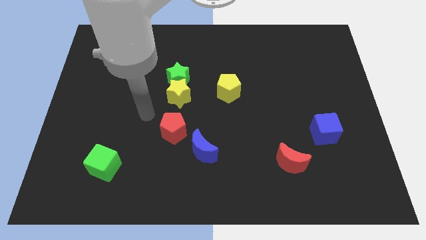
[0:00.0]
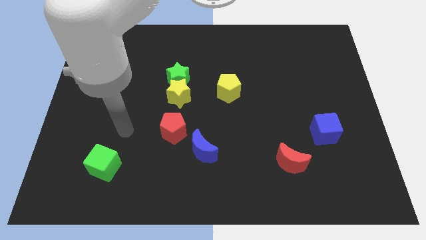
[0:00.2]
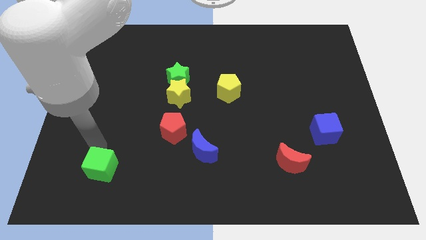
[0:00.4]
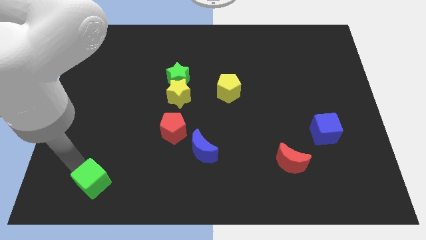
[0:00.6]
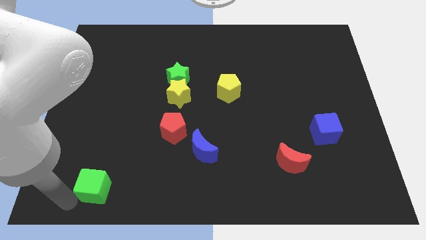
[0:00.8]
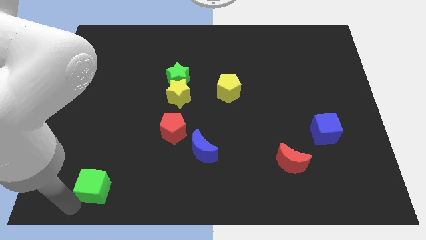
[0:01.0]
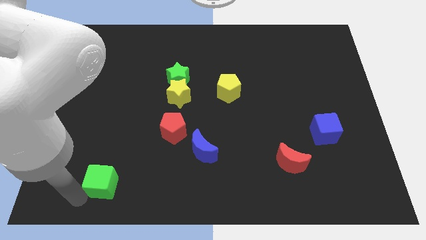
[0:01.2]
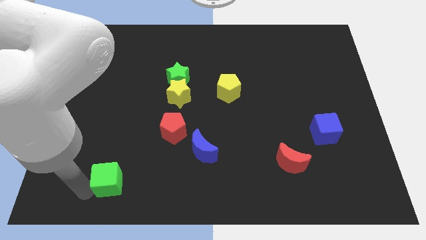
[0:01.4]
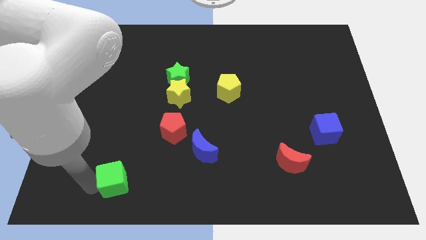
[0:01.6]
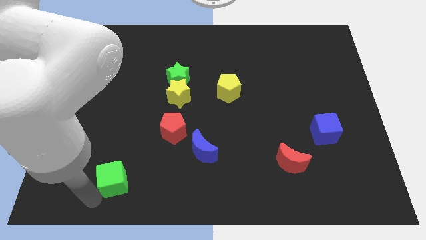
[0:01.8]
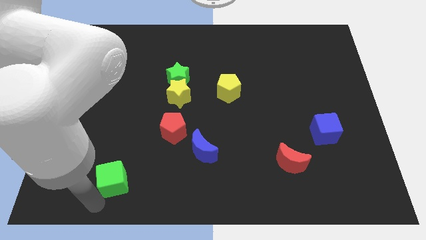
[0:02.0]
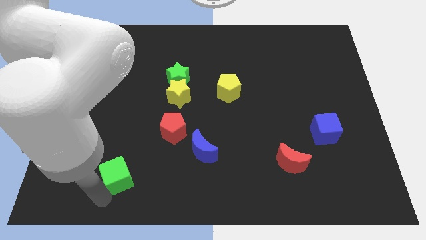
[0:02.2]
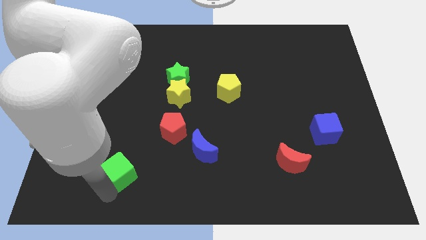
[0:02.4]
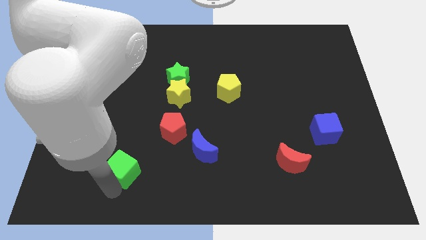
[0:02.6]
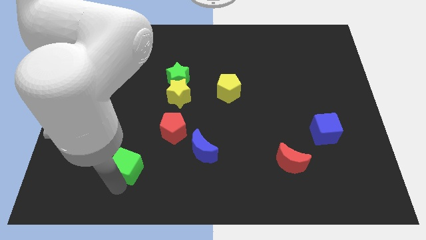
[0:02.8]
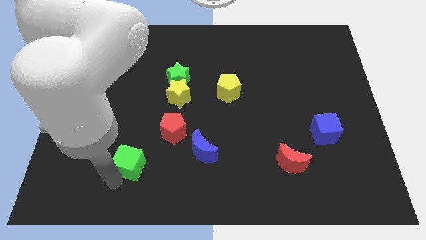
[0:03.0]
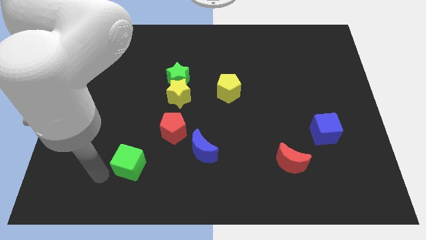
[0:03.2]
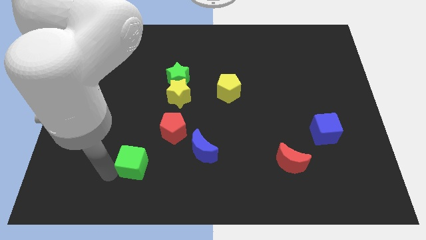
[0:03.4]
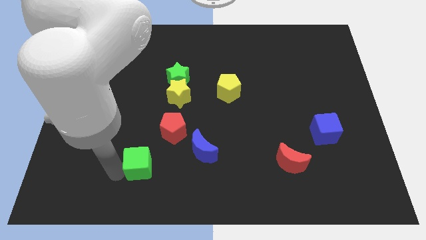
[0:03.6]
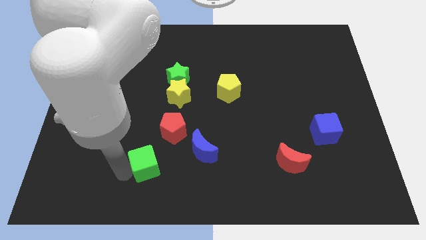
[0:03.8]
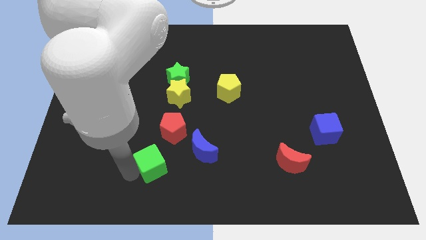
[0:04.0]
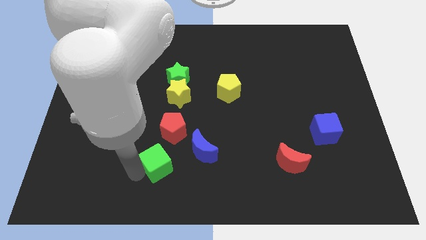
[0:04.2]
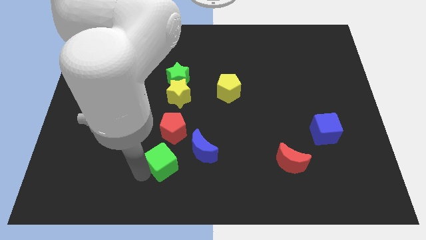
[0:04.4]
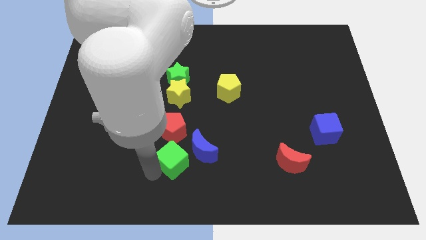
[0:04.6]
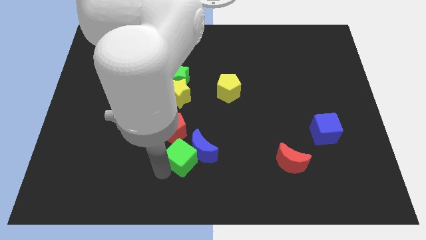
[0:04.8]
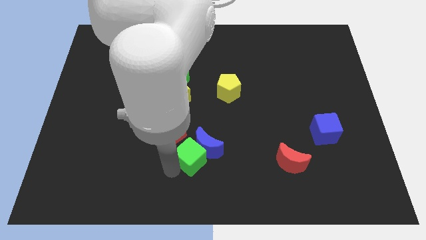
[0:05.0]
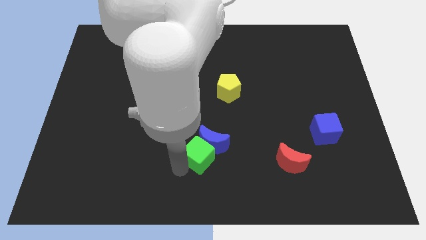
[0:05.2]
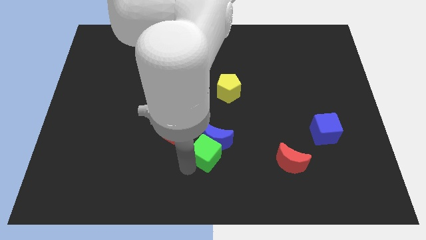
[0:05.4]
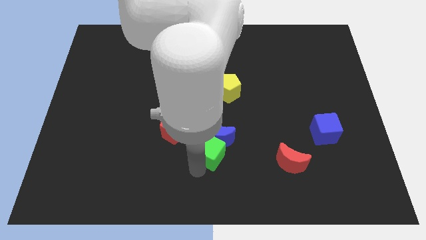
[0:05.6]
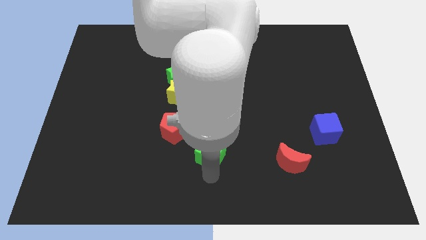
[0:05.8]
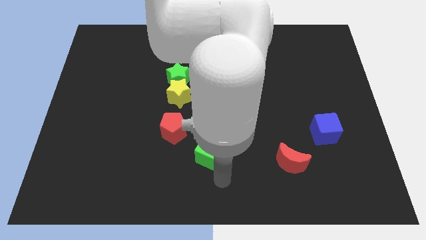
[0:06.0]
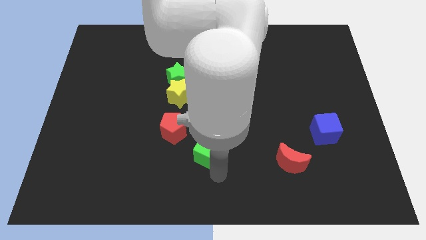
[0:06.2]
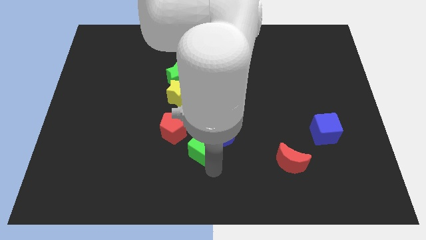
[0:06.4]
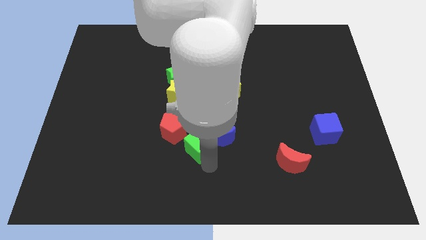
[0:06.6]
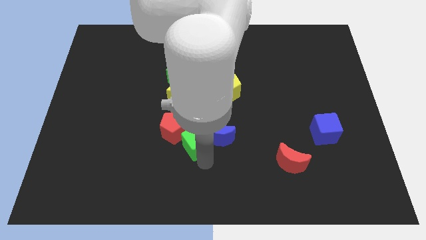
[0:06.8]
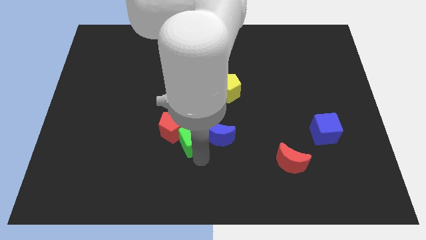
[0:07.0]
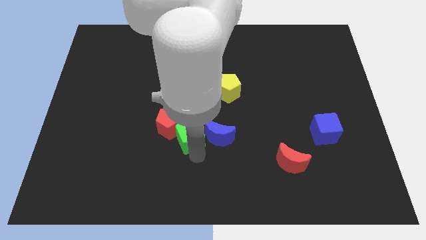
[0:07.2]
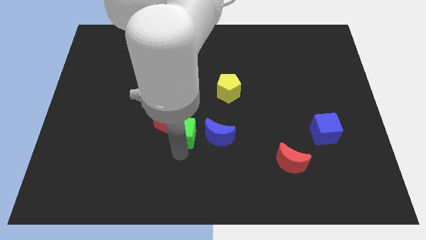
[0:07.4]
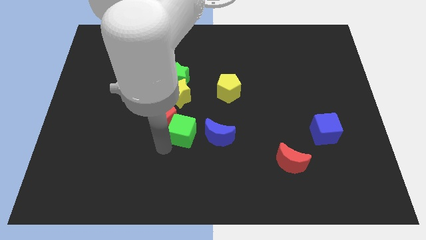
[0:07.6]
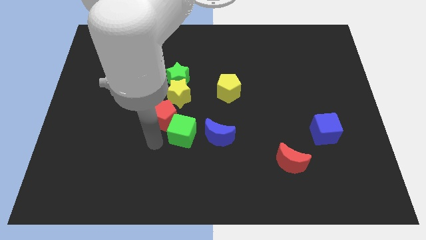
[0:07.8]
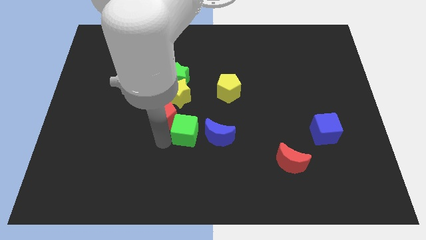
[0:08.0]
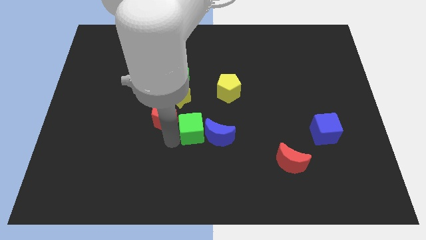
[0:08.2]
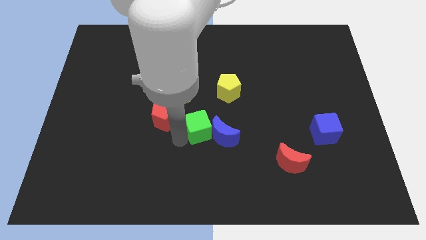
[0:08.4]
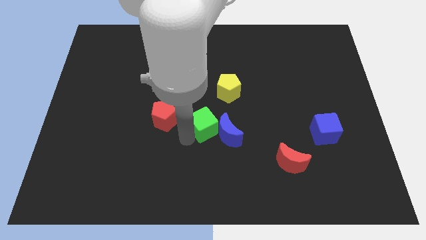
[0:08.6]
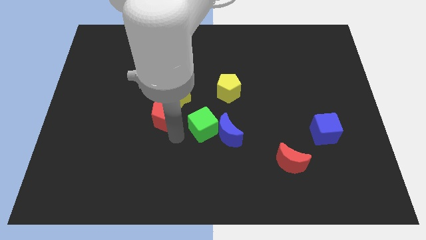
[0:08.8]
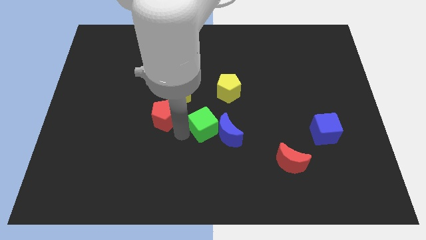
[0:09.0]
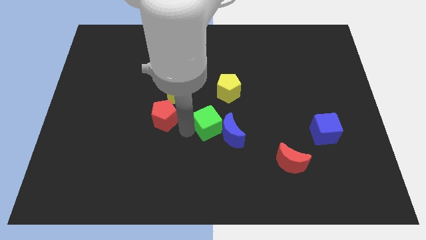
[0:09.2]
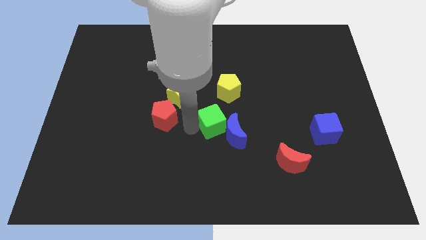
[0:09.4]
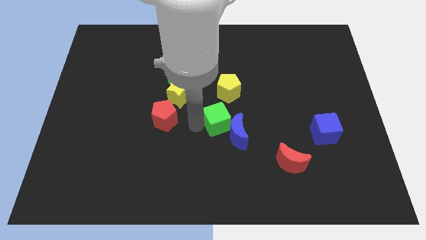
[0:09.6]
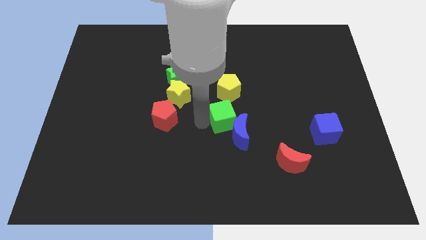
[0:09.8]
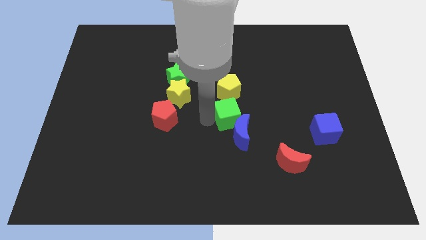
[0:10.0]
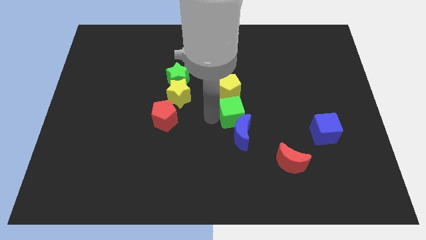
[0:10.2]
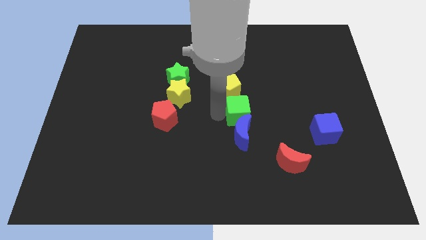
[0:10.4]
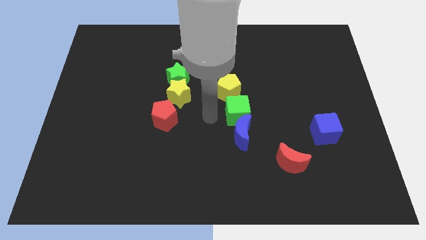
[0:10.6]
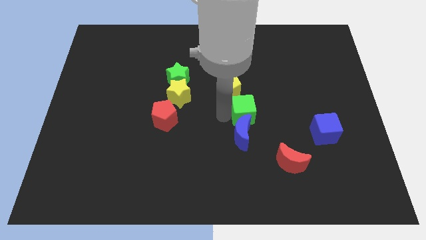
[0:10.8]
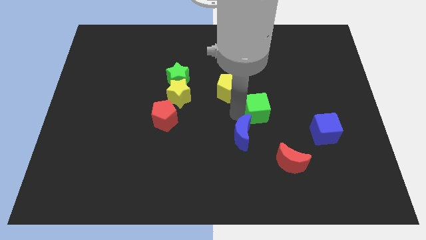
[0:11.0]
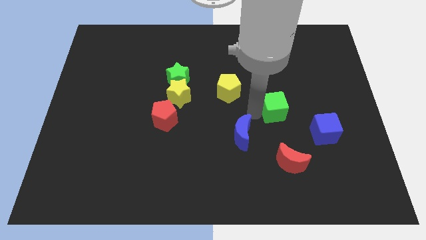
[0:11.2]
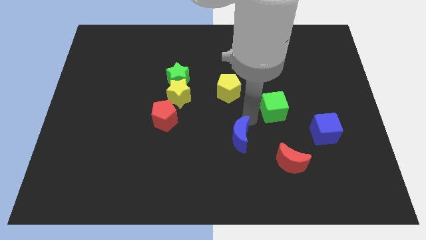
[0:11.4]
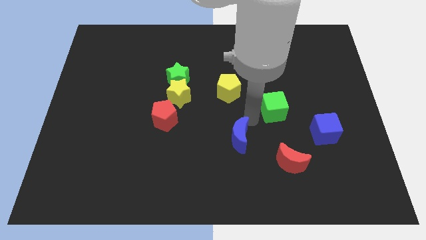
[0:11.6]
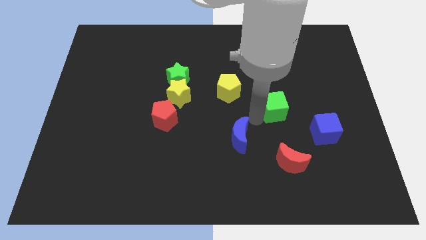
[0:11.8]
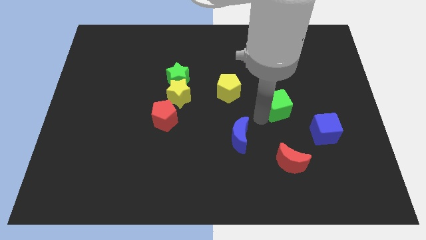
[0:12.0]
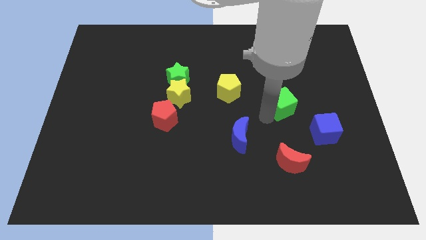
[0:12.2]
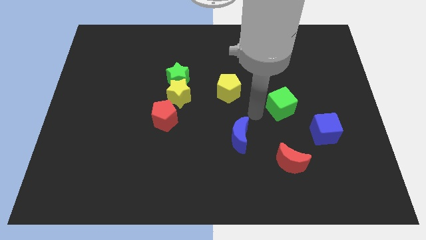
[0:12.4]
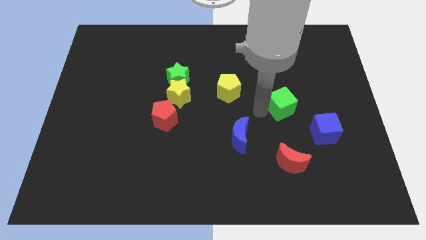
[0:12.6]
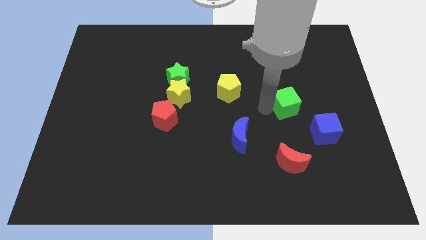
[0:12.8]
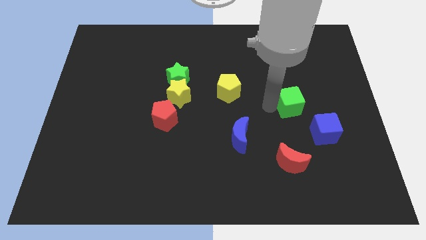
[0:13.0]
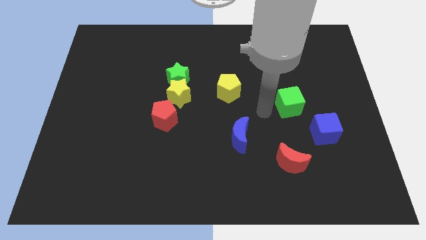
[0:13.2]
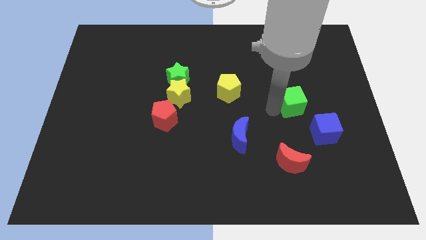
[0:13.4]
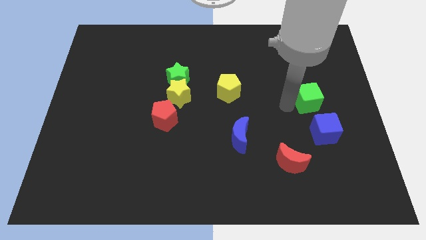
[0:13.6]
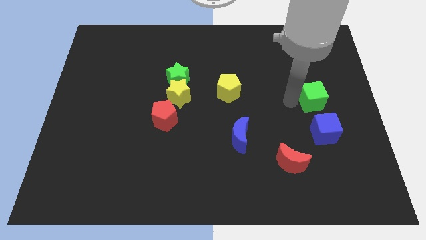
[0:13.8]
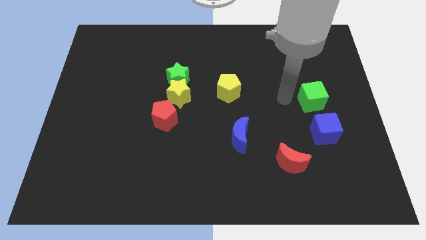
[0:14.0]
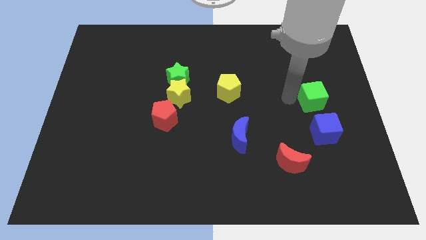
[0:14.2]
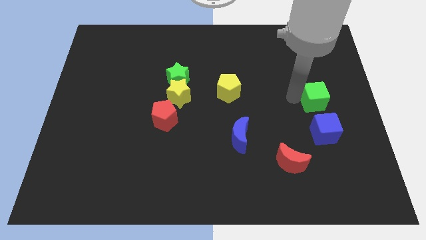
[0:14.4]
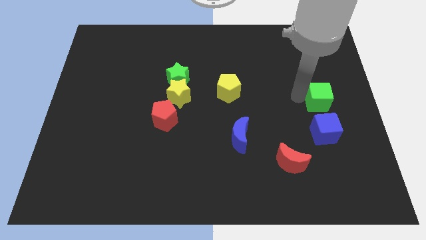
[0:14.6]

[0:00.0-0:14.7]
put the green cube to the center right
